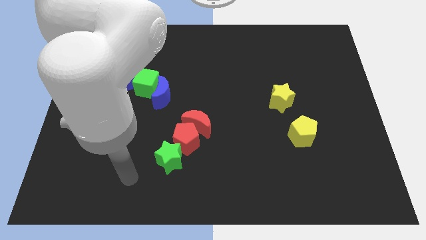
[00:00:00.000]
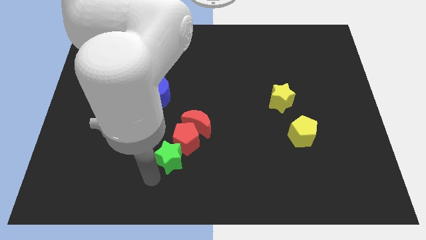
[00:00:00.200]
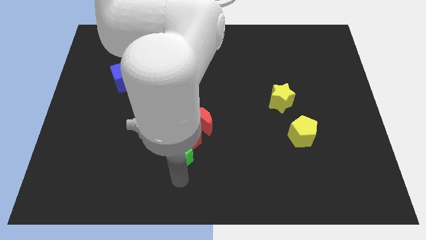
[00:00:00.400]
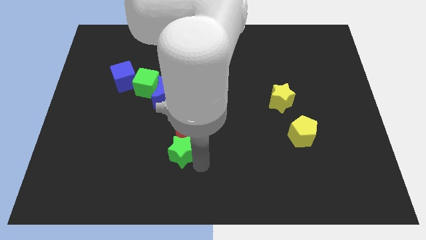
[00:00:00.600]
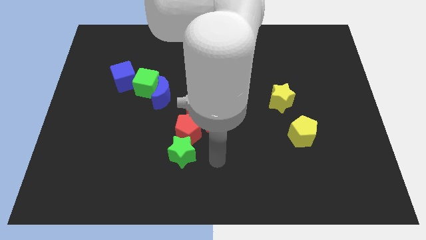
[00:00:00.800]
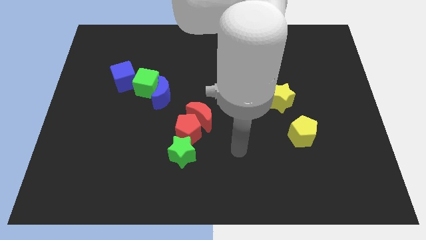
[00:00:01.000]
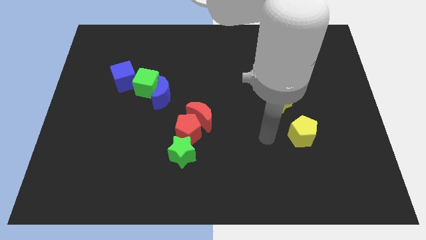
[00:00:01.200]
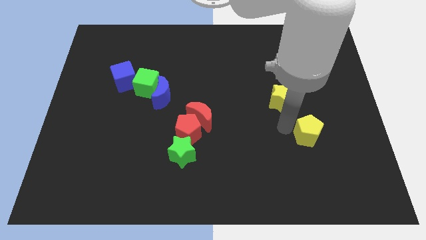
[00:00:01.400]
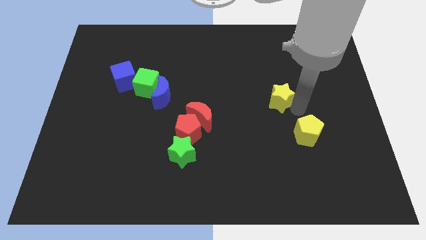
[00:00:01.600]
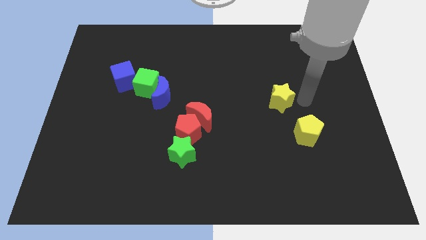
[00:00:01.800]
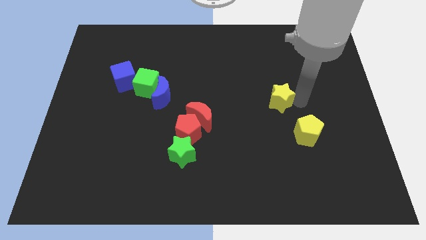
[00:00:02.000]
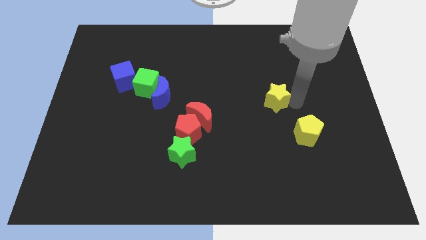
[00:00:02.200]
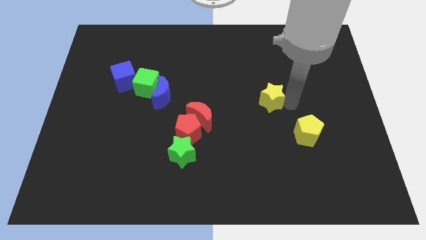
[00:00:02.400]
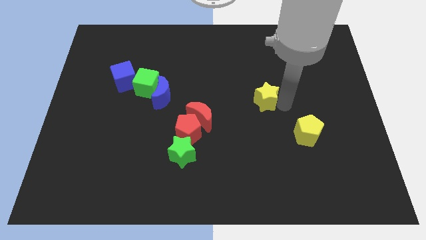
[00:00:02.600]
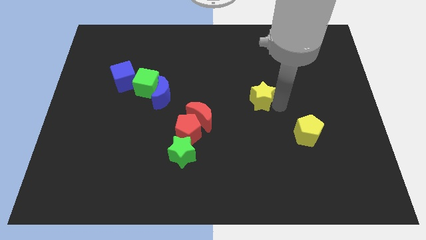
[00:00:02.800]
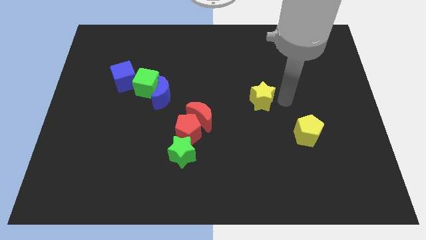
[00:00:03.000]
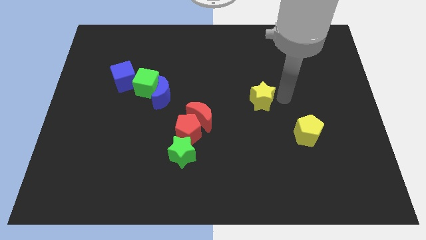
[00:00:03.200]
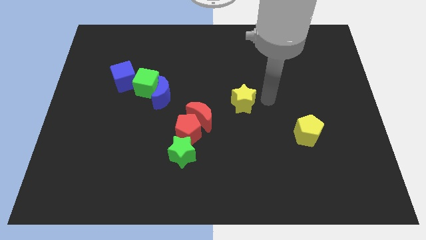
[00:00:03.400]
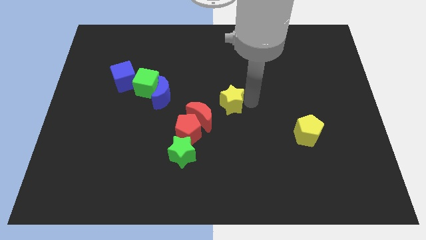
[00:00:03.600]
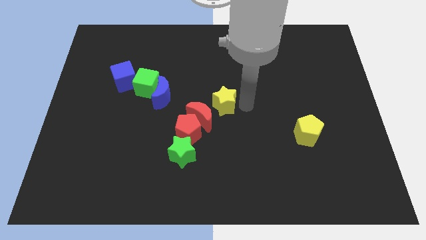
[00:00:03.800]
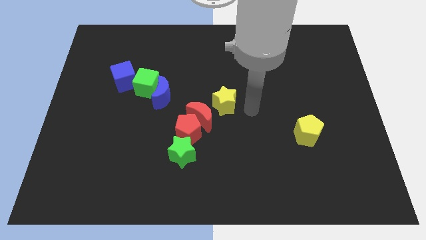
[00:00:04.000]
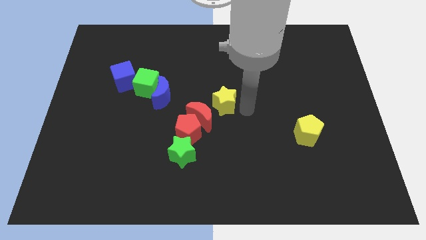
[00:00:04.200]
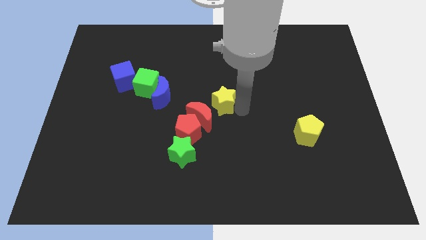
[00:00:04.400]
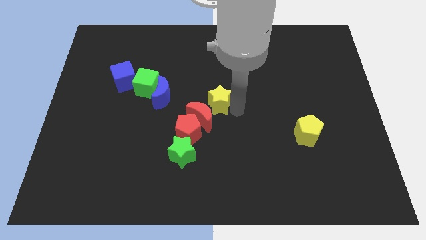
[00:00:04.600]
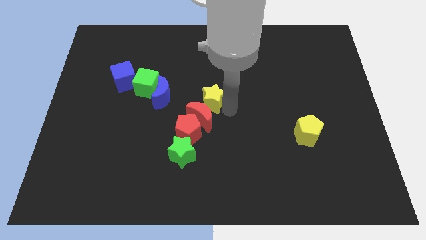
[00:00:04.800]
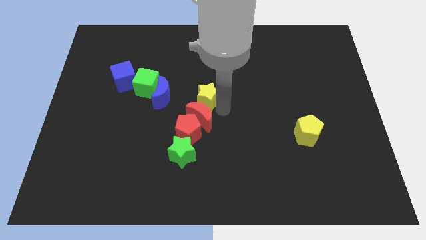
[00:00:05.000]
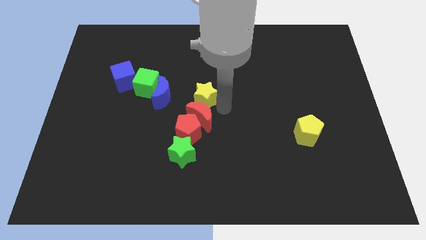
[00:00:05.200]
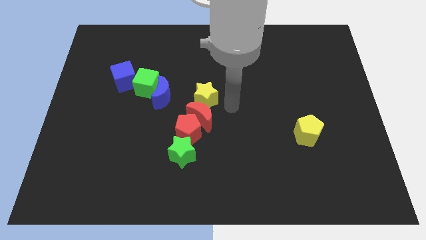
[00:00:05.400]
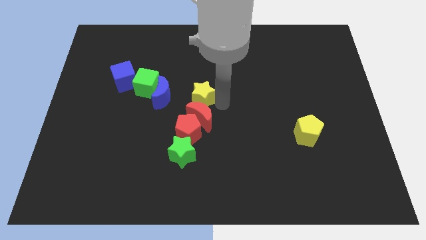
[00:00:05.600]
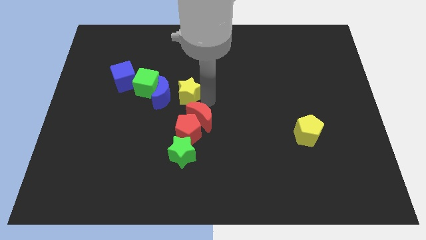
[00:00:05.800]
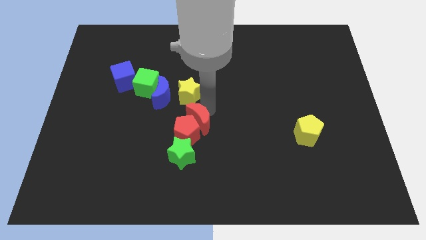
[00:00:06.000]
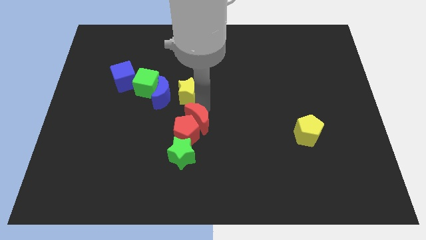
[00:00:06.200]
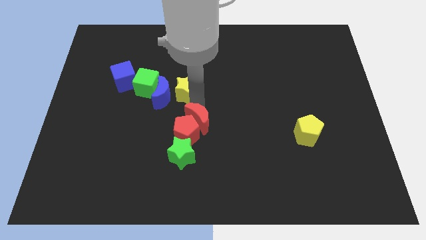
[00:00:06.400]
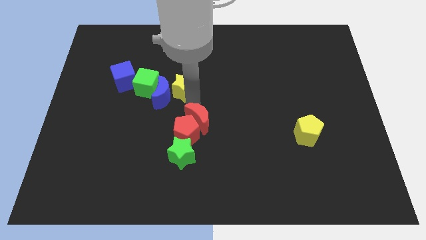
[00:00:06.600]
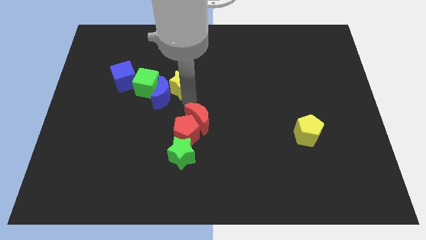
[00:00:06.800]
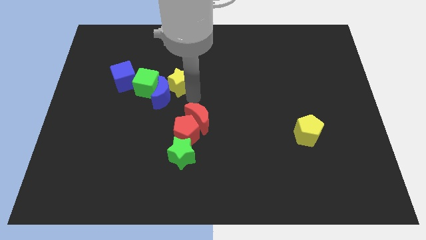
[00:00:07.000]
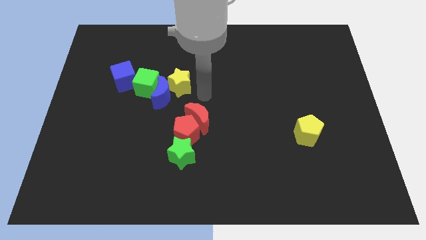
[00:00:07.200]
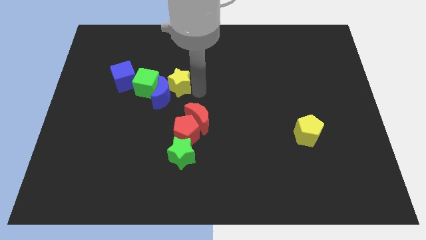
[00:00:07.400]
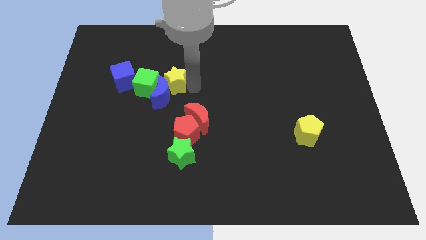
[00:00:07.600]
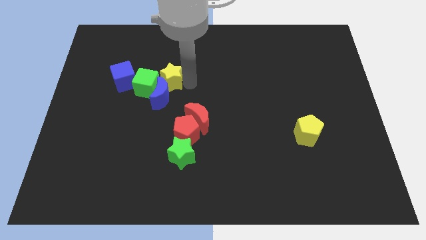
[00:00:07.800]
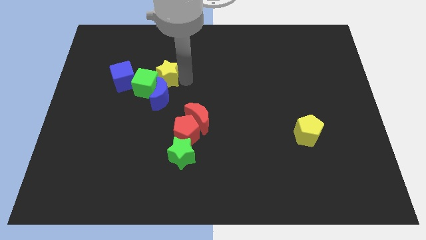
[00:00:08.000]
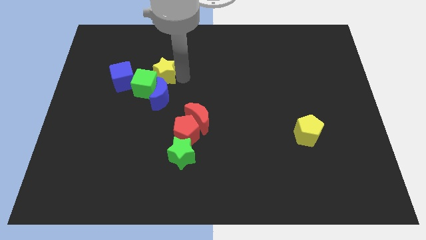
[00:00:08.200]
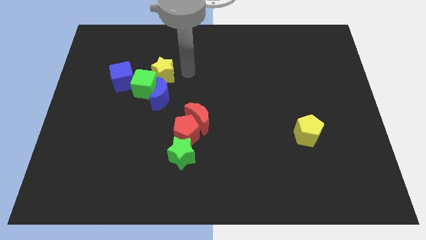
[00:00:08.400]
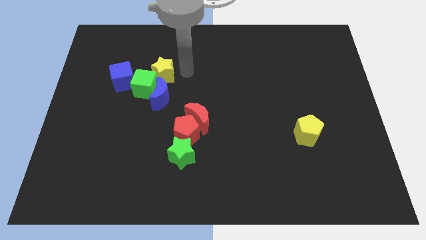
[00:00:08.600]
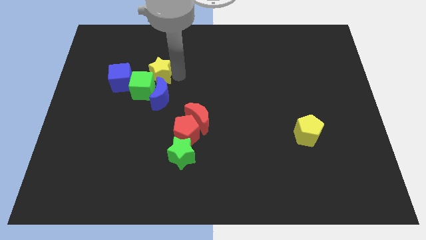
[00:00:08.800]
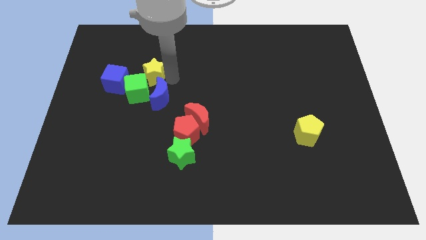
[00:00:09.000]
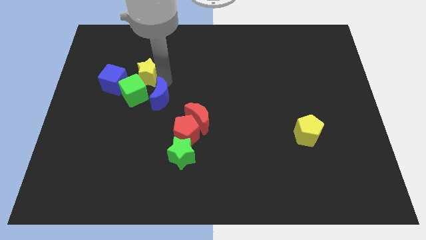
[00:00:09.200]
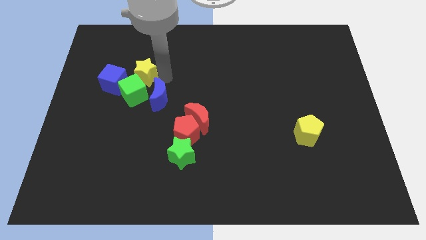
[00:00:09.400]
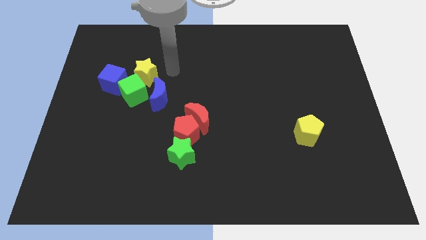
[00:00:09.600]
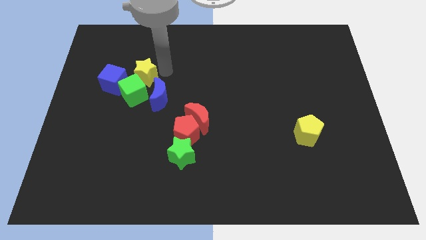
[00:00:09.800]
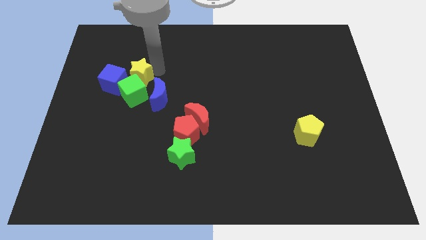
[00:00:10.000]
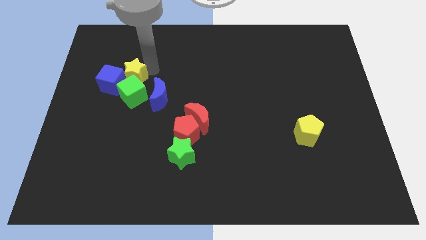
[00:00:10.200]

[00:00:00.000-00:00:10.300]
move the yellow star next to the blue cube

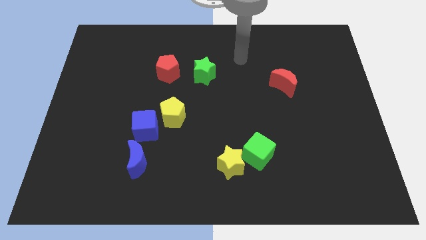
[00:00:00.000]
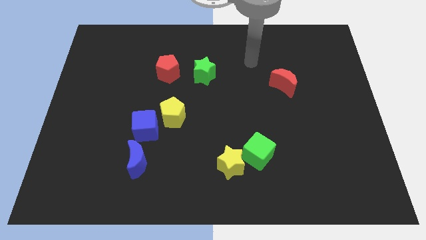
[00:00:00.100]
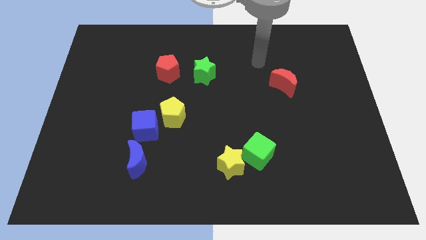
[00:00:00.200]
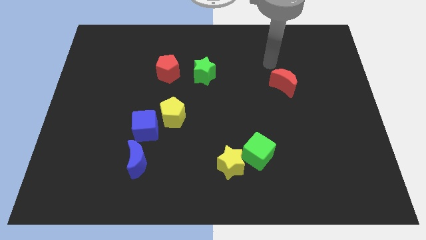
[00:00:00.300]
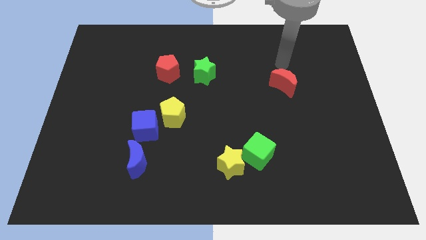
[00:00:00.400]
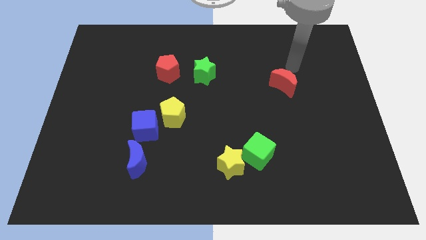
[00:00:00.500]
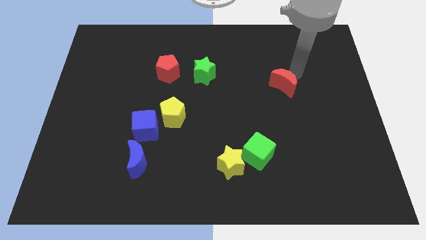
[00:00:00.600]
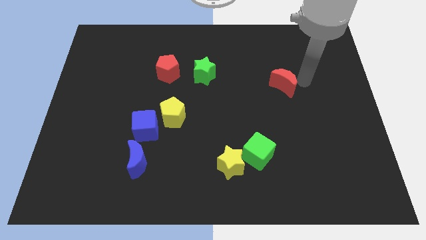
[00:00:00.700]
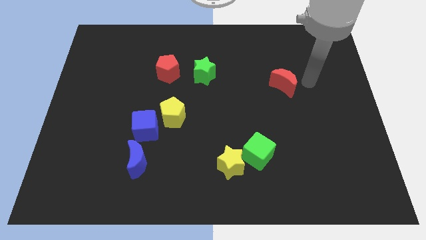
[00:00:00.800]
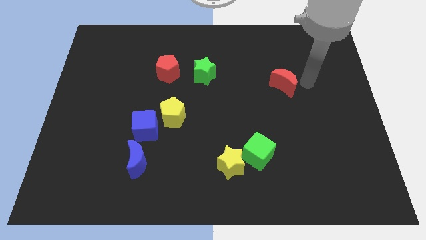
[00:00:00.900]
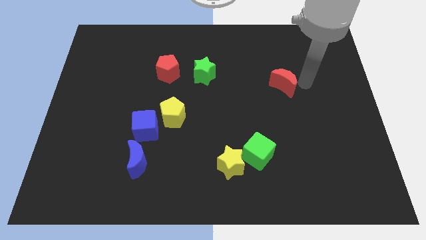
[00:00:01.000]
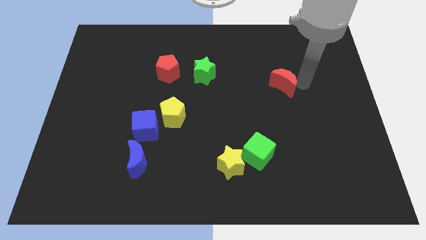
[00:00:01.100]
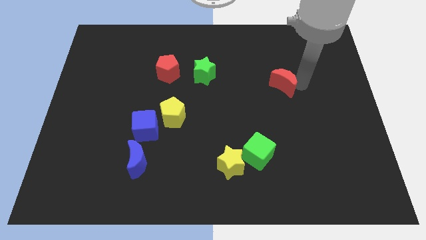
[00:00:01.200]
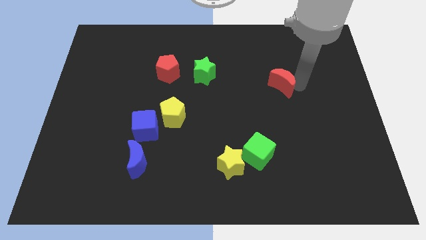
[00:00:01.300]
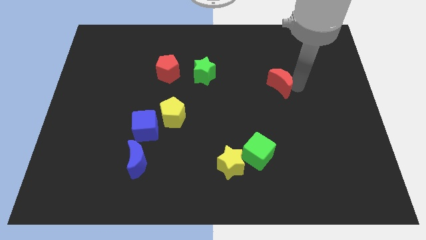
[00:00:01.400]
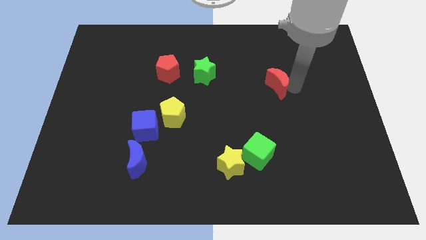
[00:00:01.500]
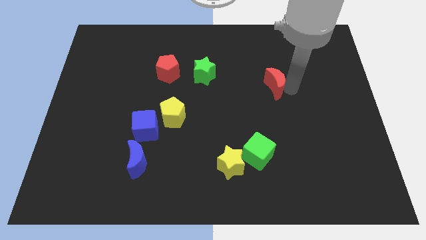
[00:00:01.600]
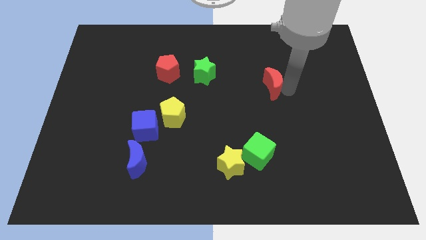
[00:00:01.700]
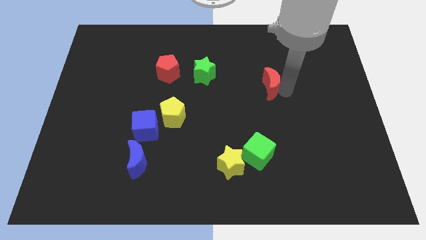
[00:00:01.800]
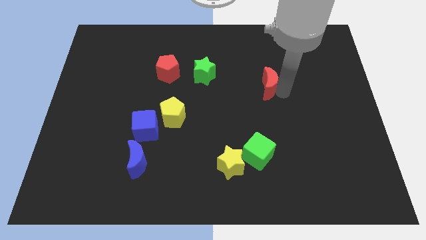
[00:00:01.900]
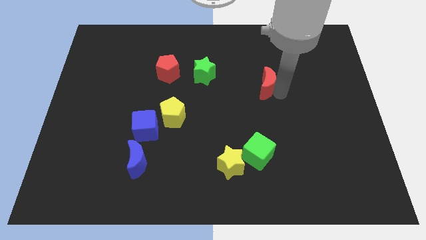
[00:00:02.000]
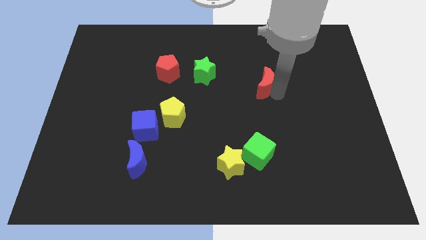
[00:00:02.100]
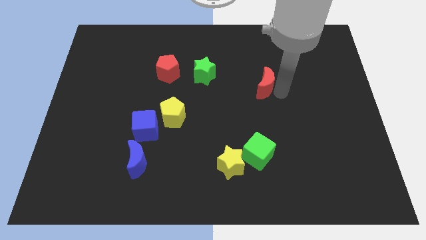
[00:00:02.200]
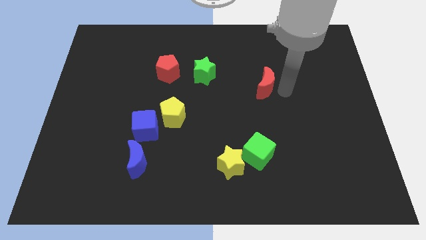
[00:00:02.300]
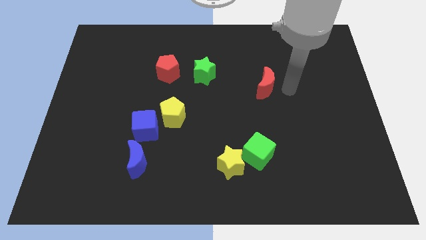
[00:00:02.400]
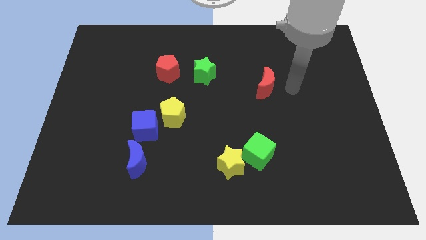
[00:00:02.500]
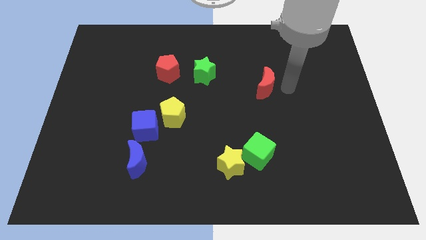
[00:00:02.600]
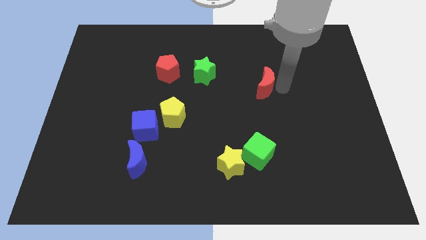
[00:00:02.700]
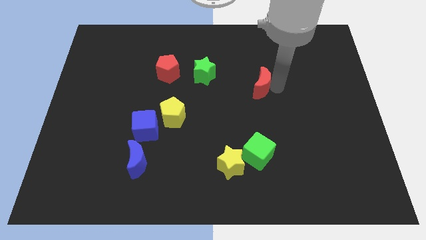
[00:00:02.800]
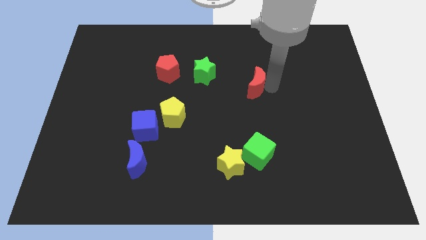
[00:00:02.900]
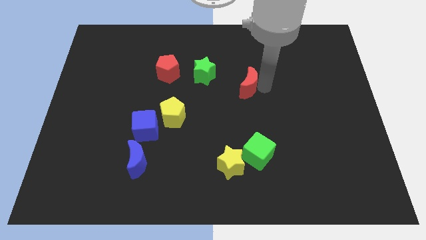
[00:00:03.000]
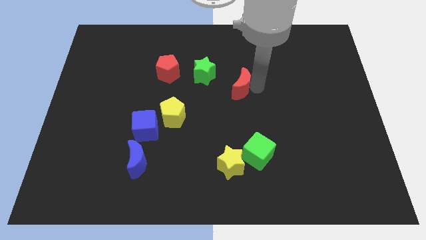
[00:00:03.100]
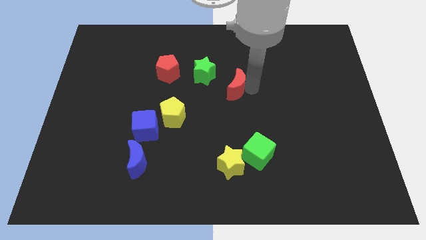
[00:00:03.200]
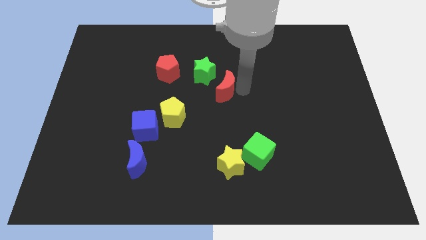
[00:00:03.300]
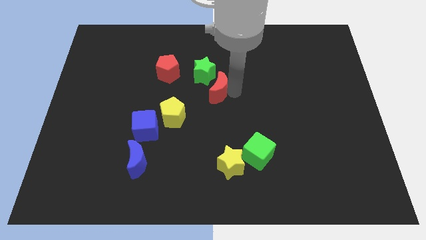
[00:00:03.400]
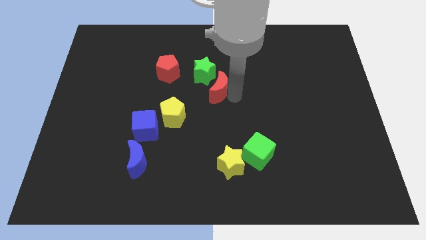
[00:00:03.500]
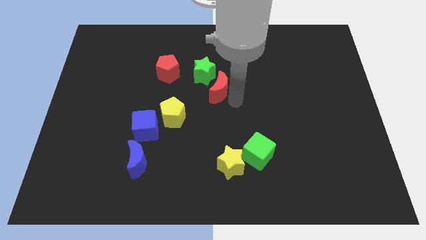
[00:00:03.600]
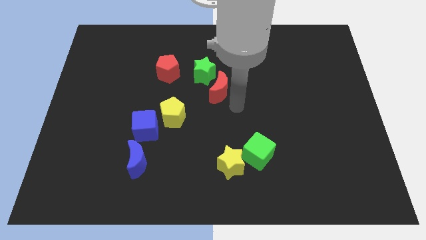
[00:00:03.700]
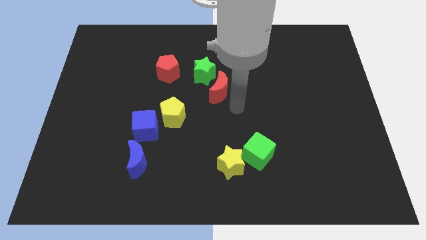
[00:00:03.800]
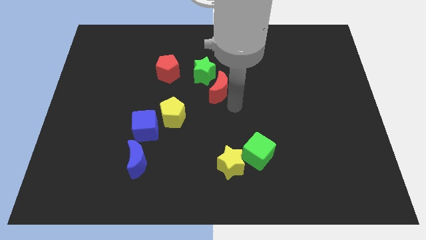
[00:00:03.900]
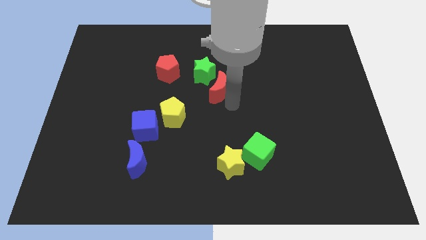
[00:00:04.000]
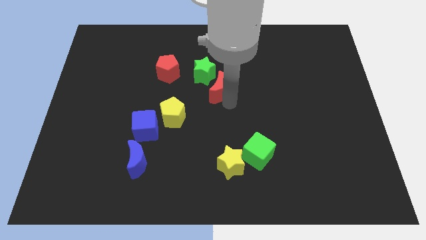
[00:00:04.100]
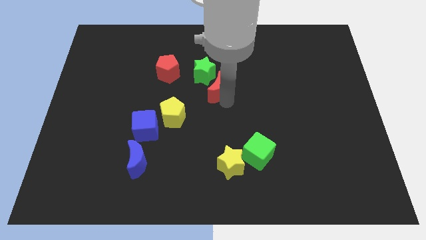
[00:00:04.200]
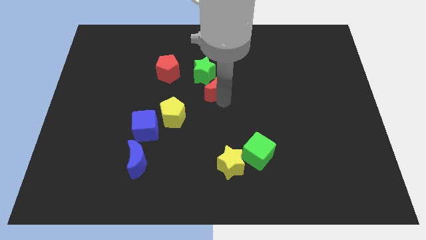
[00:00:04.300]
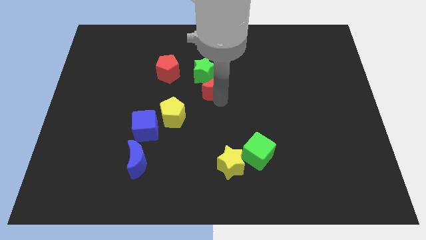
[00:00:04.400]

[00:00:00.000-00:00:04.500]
move the red moon to the green star
